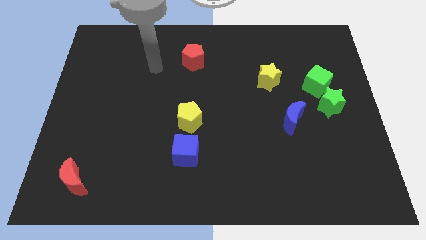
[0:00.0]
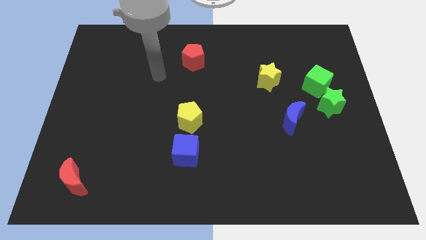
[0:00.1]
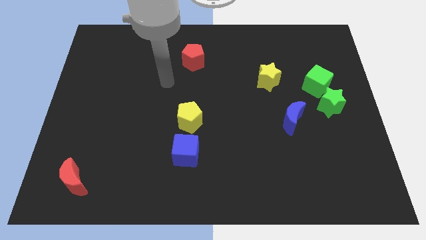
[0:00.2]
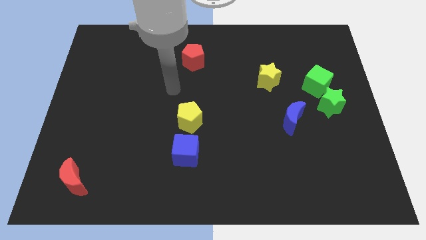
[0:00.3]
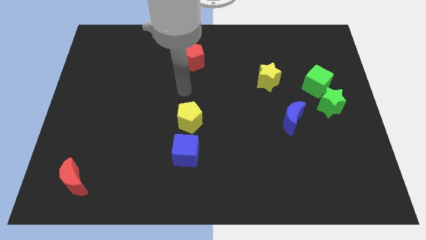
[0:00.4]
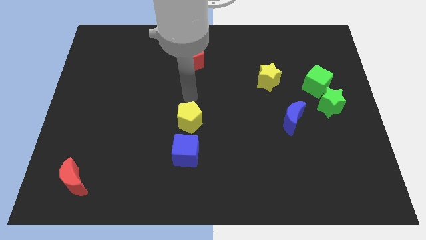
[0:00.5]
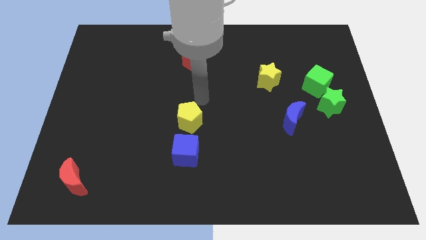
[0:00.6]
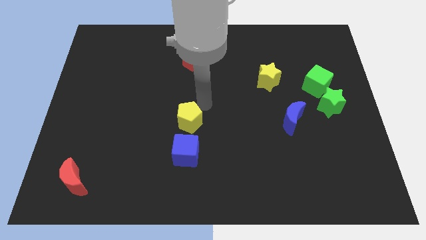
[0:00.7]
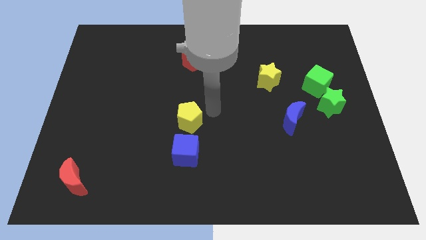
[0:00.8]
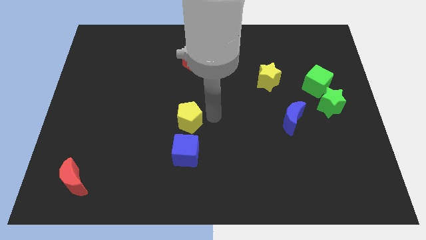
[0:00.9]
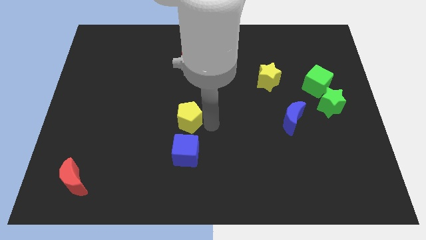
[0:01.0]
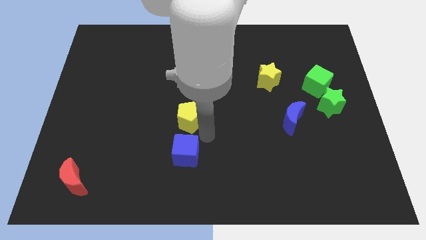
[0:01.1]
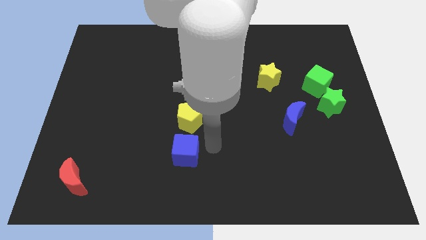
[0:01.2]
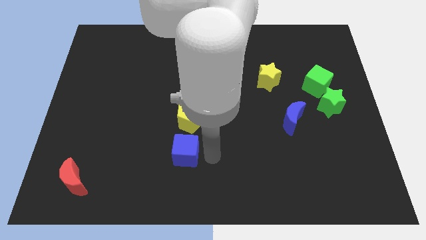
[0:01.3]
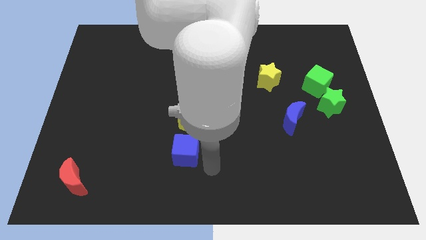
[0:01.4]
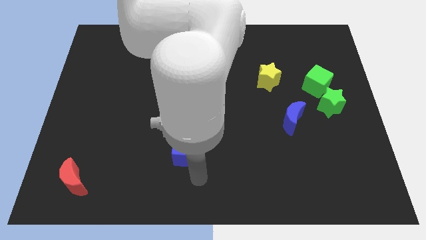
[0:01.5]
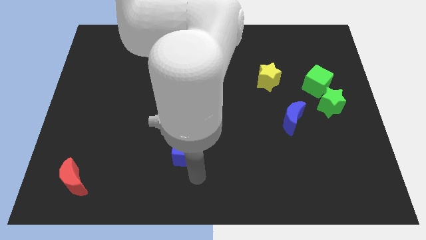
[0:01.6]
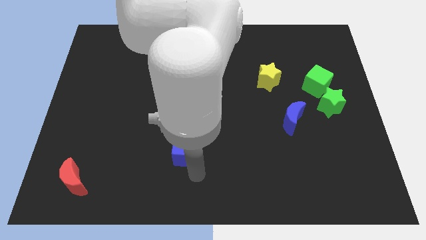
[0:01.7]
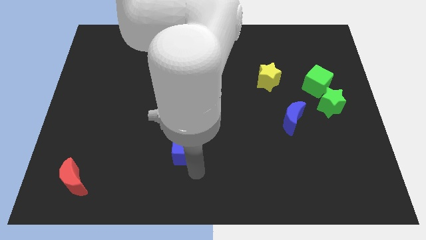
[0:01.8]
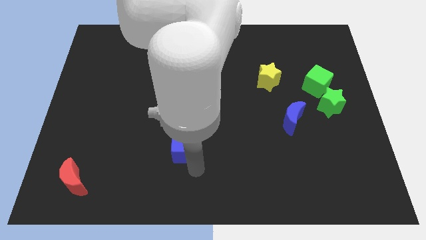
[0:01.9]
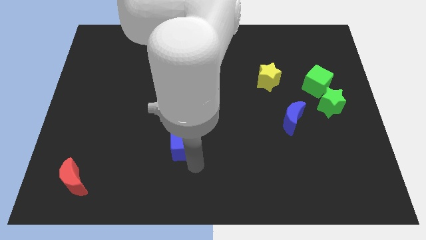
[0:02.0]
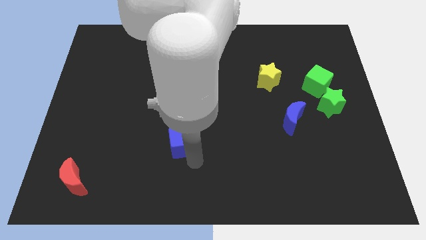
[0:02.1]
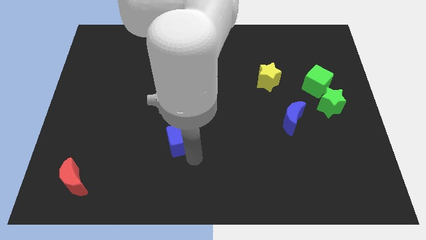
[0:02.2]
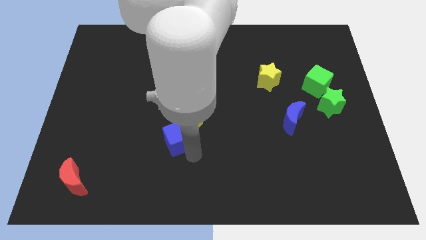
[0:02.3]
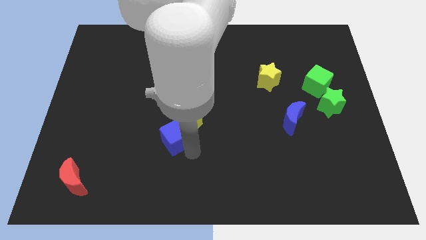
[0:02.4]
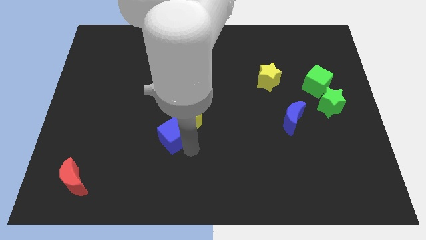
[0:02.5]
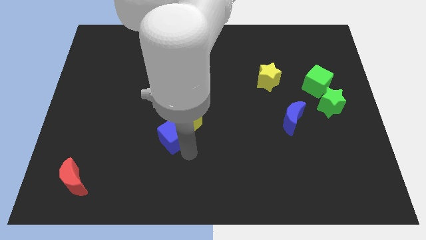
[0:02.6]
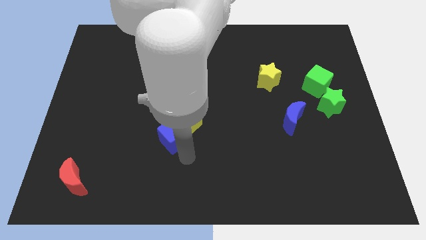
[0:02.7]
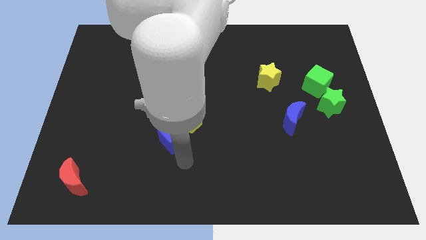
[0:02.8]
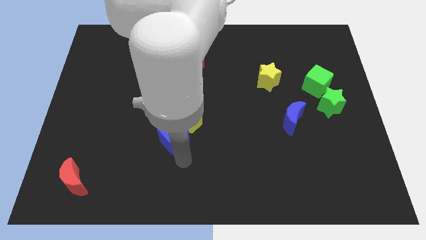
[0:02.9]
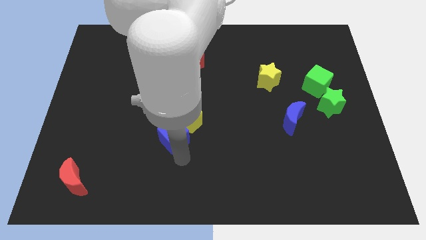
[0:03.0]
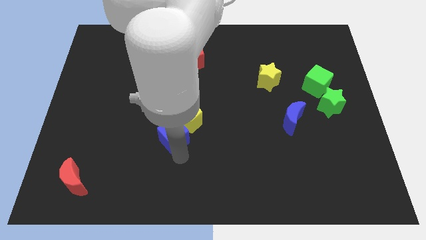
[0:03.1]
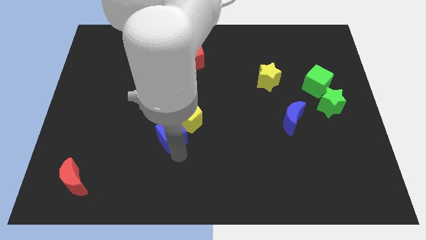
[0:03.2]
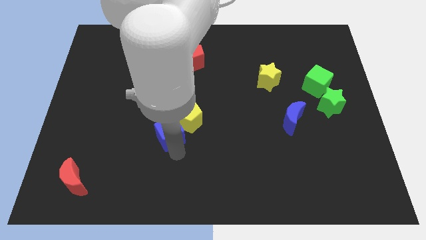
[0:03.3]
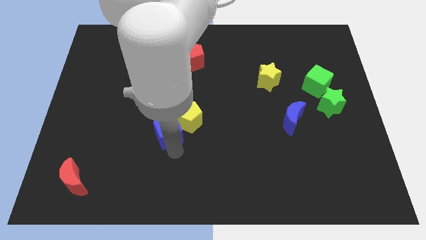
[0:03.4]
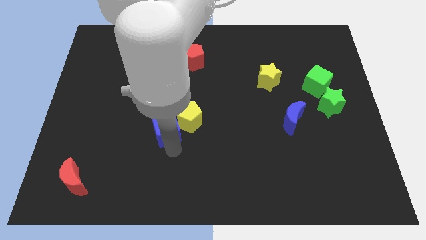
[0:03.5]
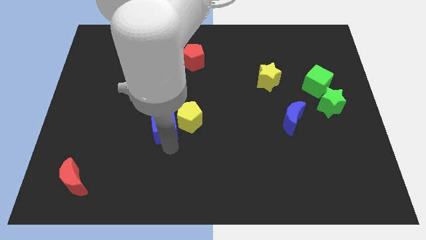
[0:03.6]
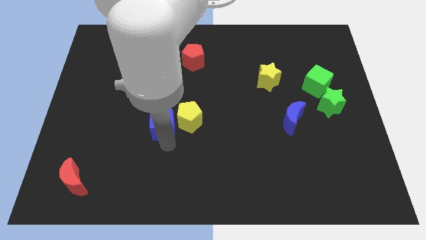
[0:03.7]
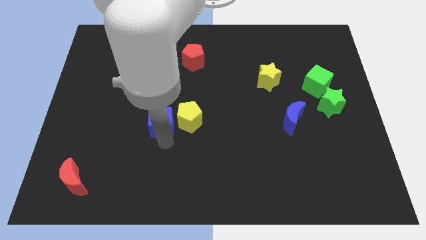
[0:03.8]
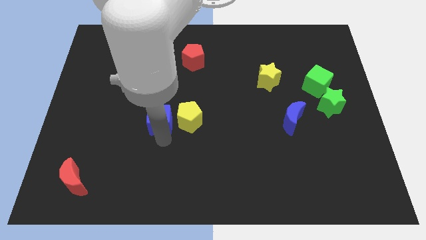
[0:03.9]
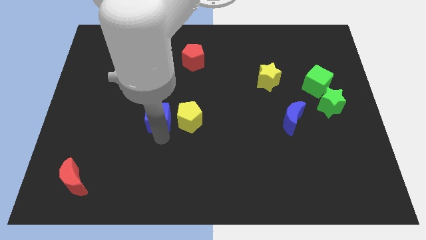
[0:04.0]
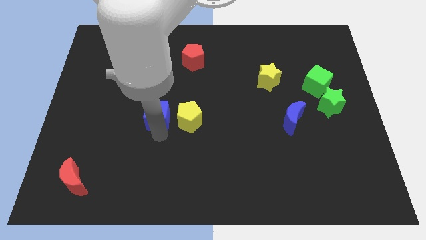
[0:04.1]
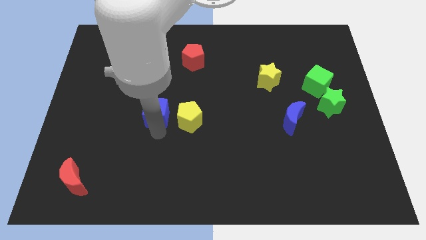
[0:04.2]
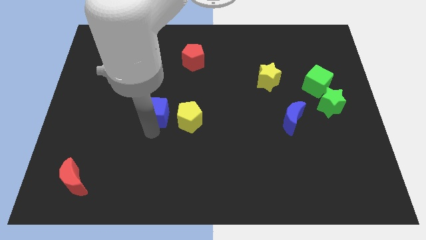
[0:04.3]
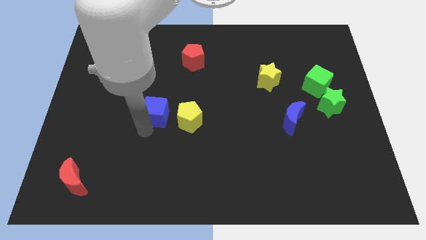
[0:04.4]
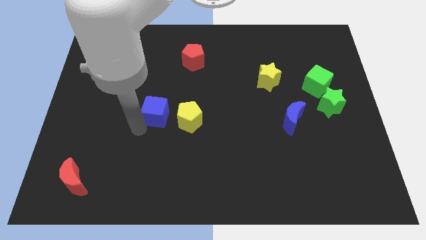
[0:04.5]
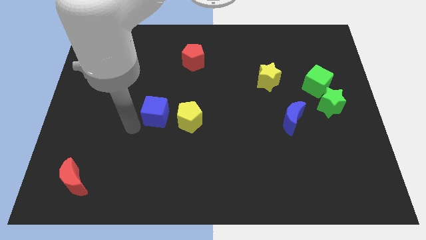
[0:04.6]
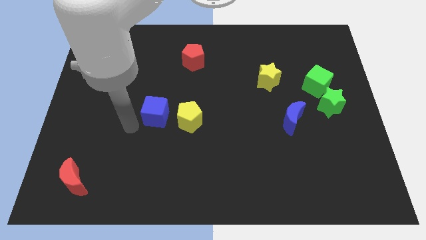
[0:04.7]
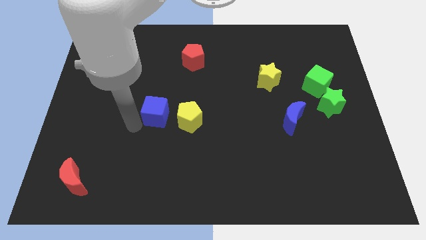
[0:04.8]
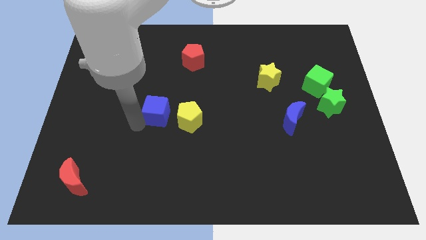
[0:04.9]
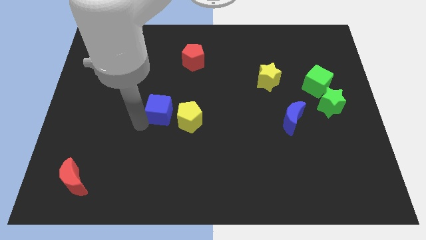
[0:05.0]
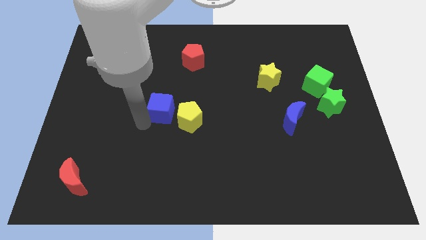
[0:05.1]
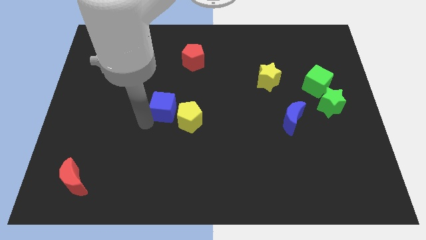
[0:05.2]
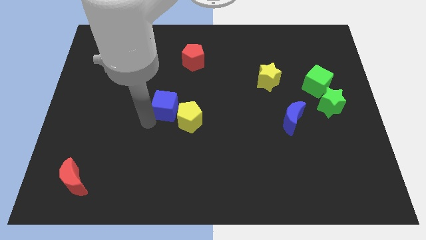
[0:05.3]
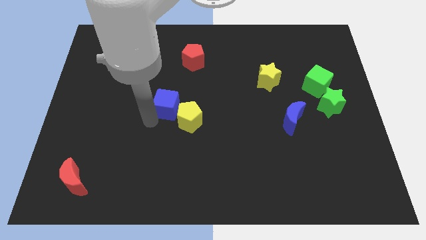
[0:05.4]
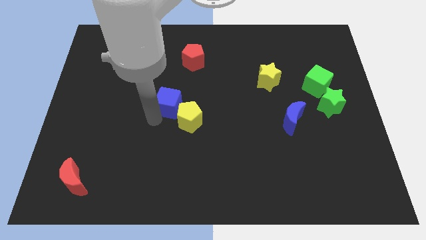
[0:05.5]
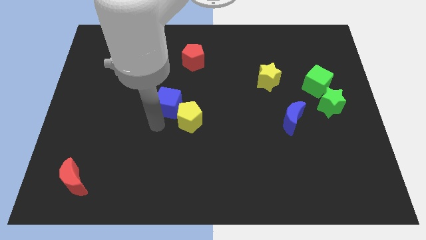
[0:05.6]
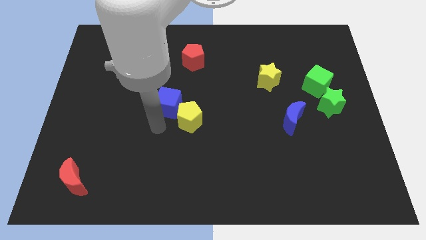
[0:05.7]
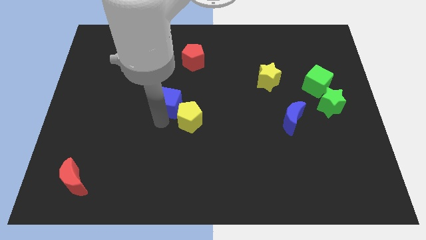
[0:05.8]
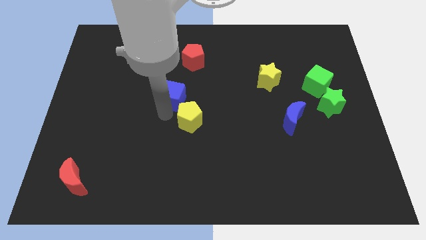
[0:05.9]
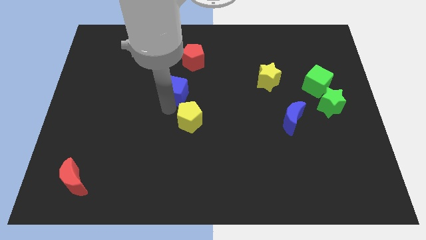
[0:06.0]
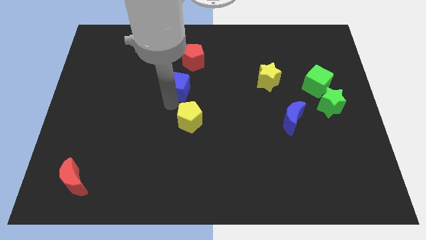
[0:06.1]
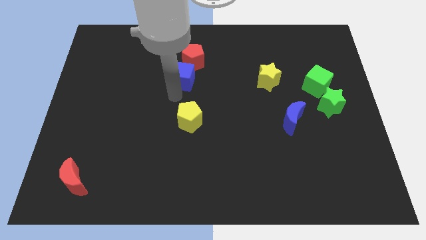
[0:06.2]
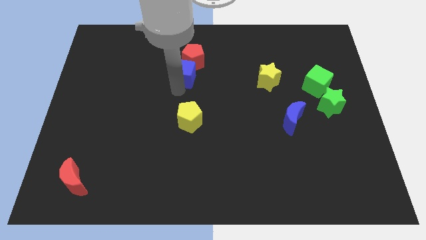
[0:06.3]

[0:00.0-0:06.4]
push the blue cube next to the red pentagon

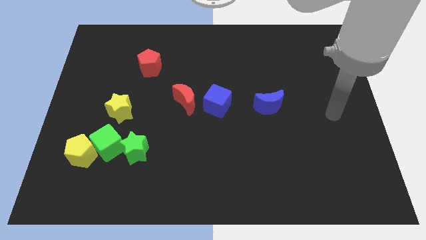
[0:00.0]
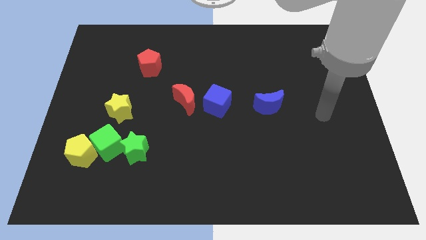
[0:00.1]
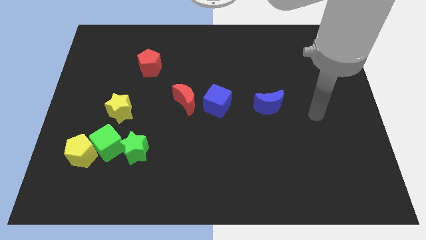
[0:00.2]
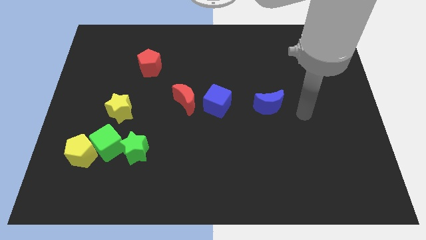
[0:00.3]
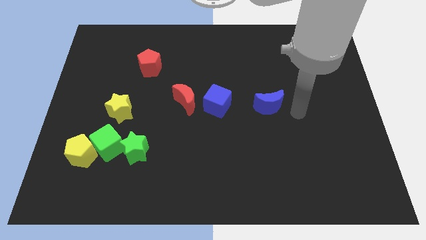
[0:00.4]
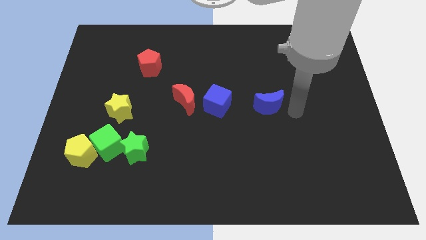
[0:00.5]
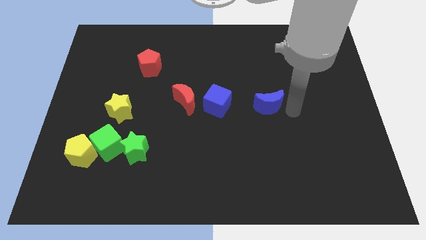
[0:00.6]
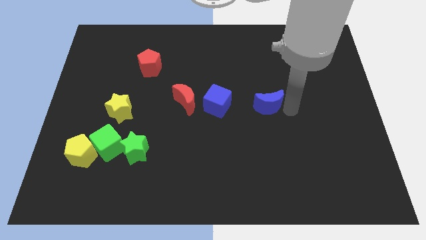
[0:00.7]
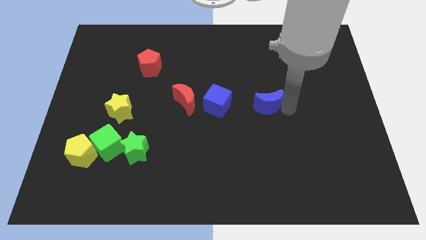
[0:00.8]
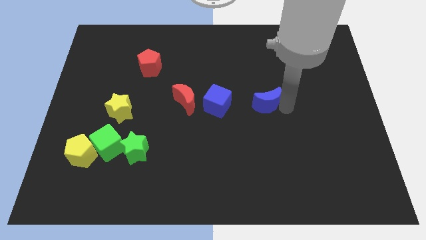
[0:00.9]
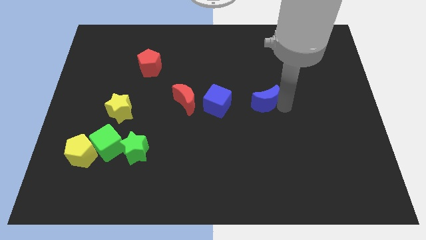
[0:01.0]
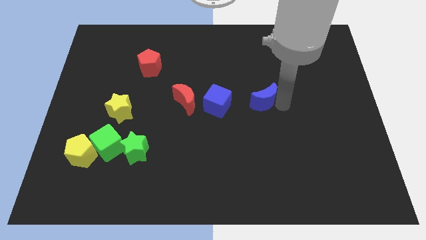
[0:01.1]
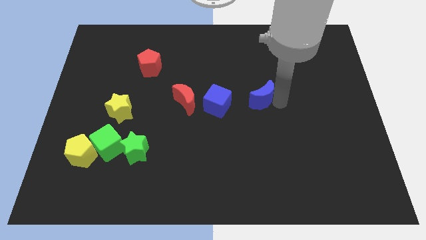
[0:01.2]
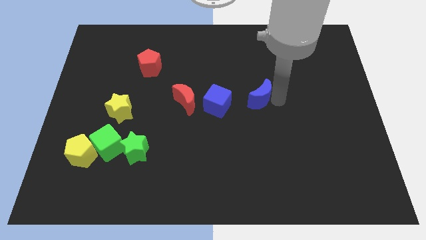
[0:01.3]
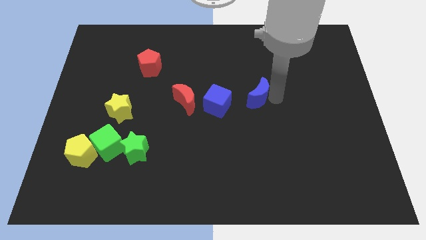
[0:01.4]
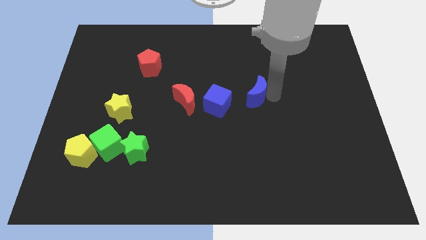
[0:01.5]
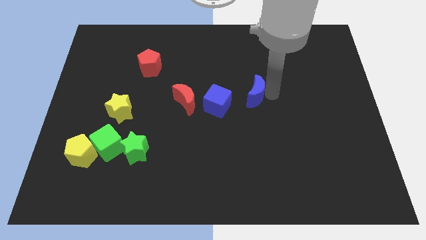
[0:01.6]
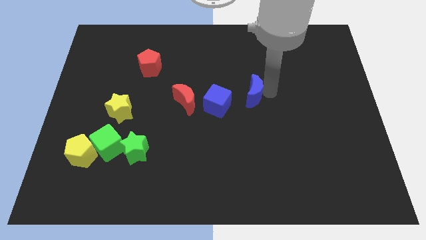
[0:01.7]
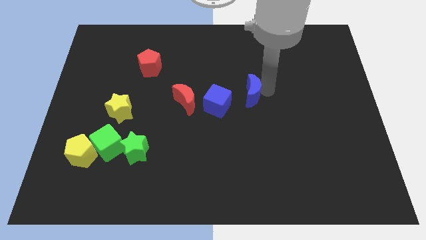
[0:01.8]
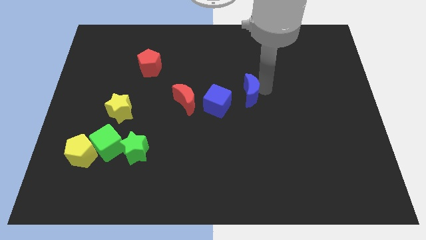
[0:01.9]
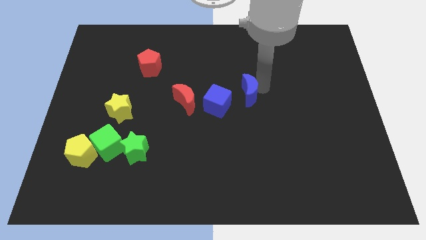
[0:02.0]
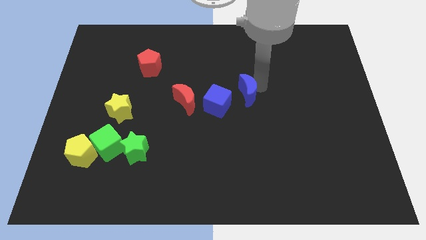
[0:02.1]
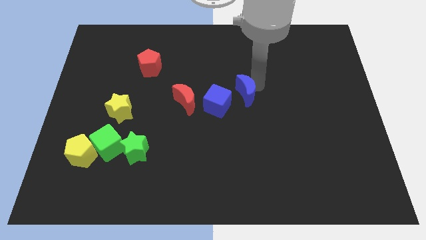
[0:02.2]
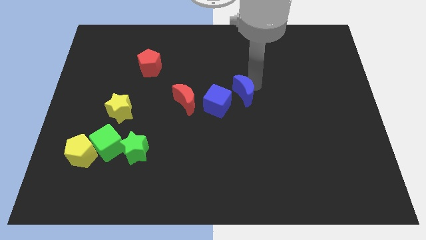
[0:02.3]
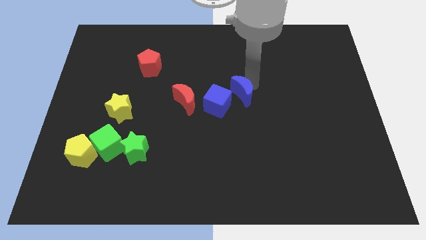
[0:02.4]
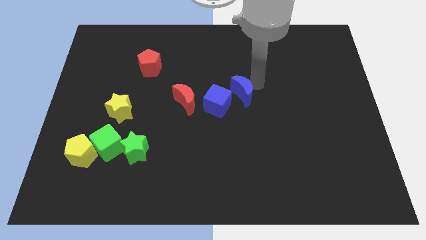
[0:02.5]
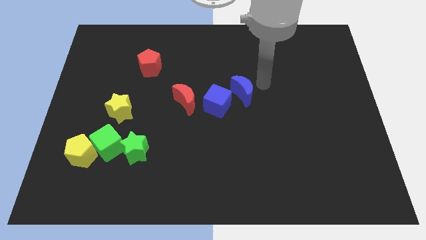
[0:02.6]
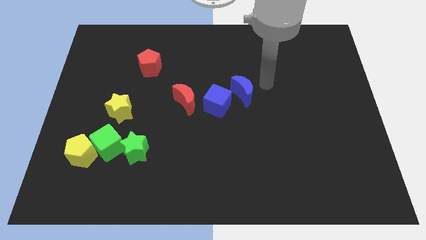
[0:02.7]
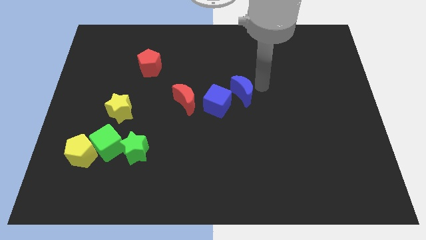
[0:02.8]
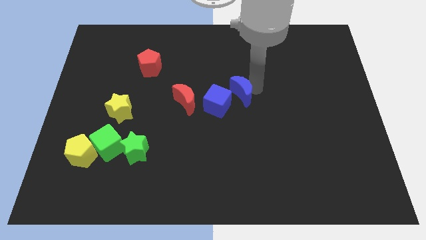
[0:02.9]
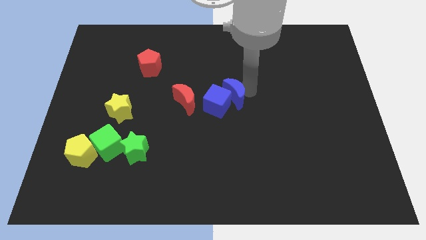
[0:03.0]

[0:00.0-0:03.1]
slide the blue moon next to the blue cube
